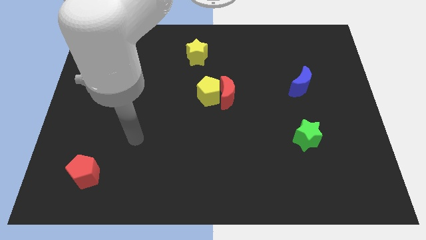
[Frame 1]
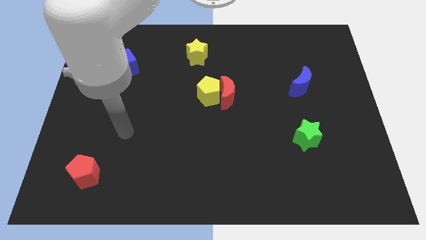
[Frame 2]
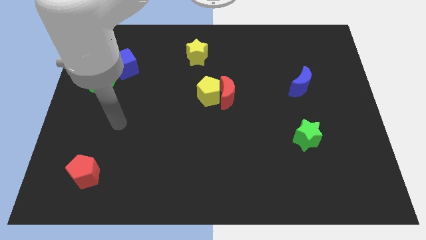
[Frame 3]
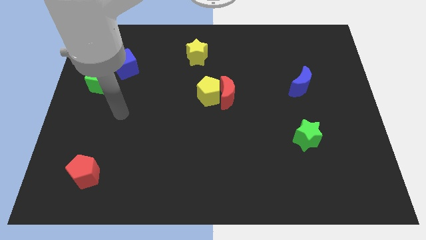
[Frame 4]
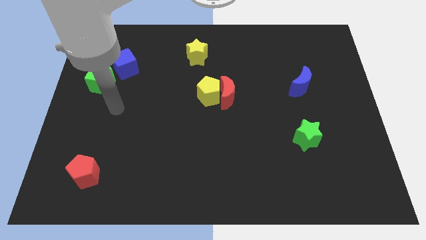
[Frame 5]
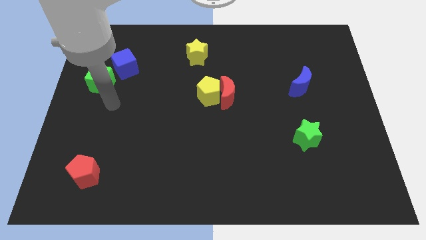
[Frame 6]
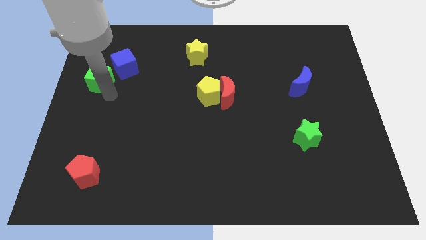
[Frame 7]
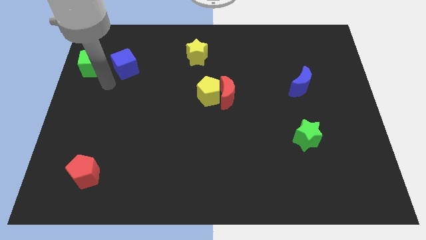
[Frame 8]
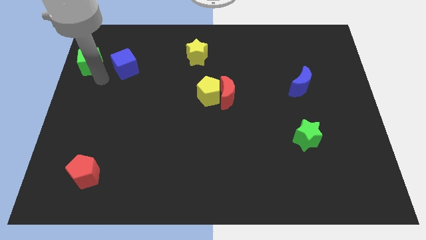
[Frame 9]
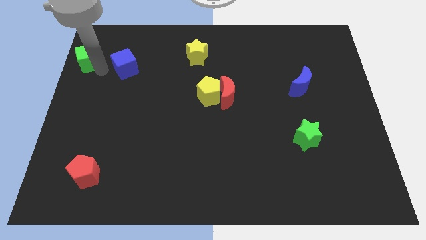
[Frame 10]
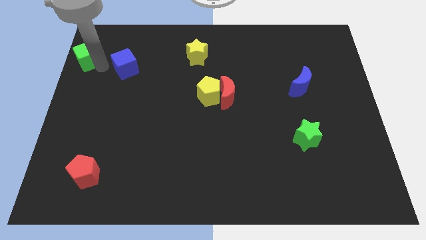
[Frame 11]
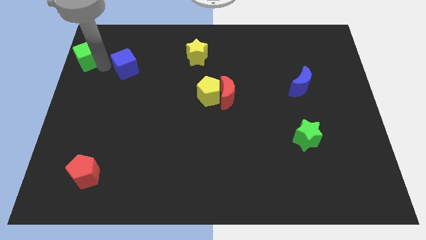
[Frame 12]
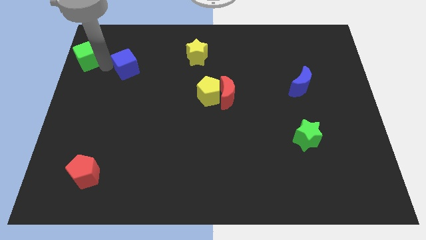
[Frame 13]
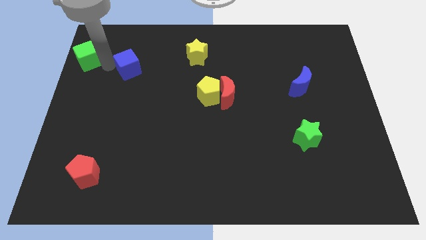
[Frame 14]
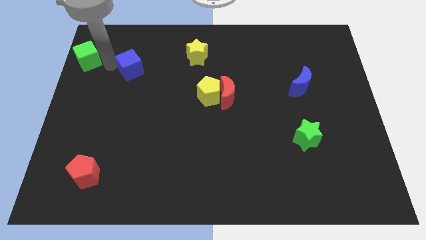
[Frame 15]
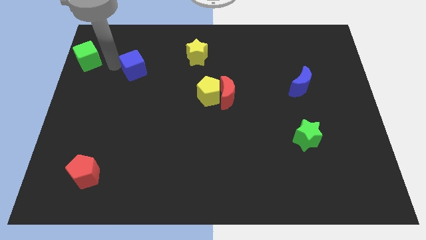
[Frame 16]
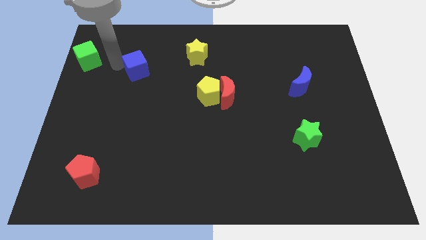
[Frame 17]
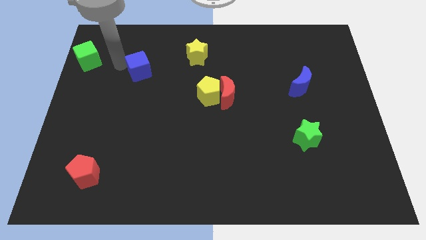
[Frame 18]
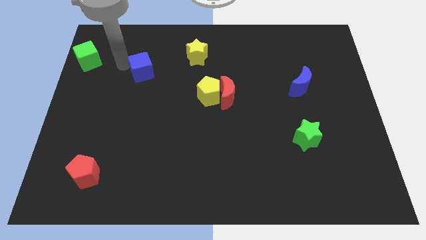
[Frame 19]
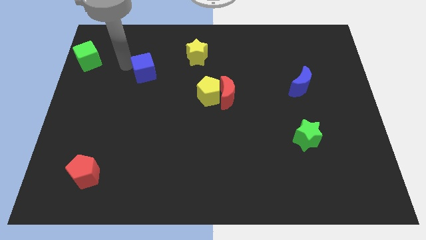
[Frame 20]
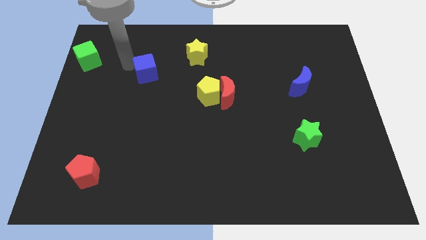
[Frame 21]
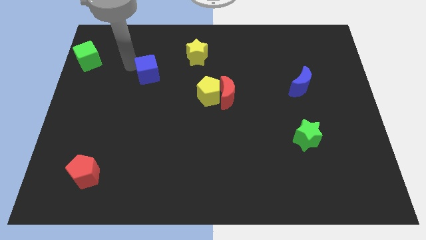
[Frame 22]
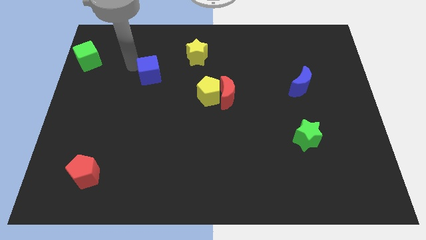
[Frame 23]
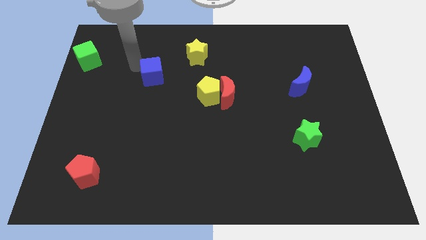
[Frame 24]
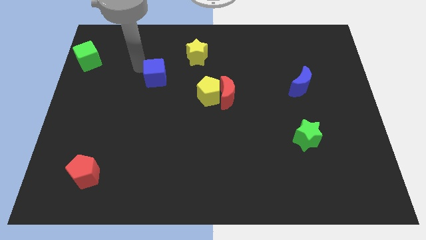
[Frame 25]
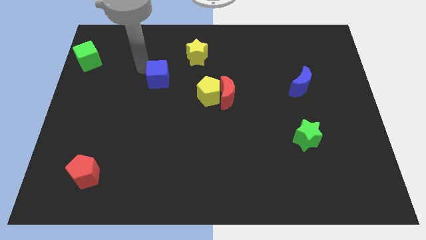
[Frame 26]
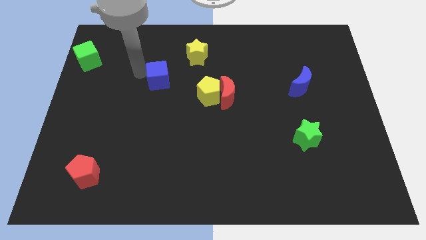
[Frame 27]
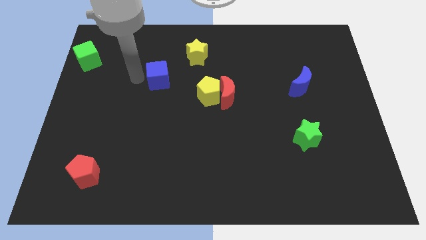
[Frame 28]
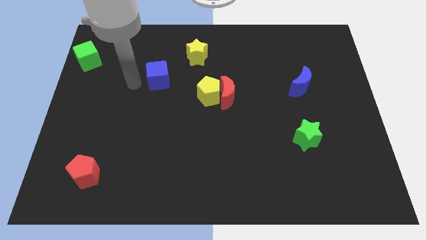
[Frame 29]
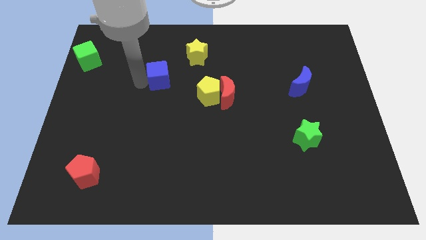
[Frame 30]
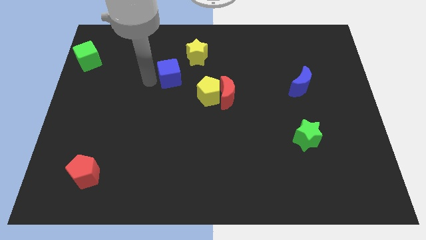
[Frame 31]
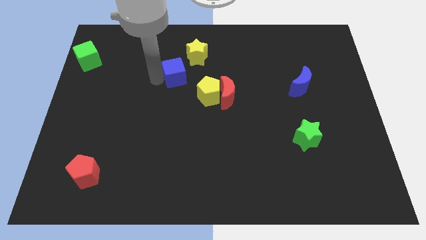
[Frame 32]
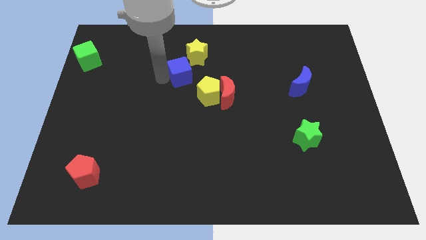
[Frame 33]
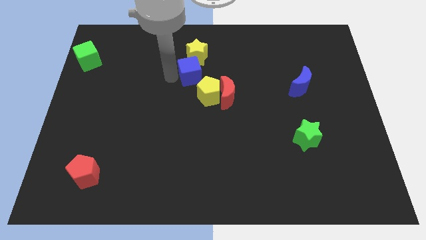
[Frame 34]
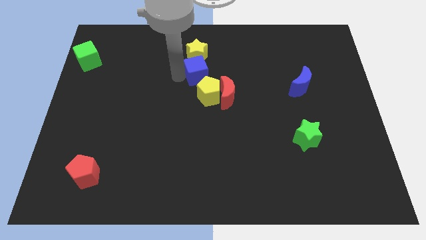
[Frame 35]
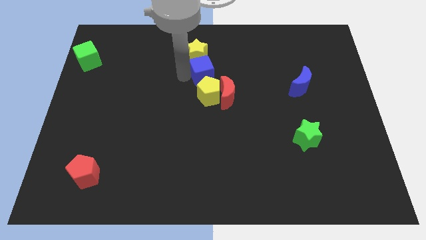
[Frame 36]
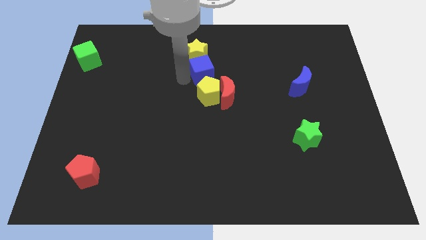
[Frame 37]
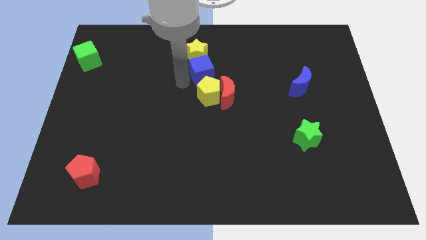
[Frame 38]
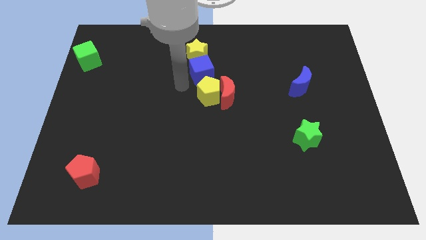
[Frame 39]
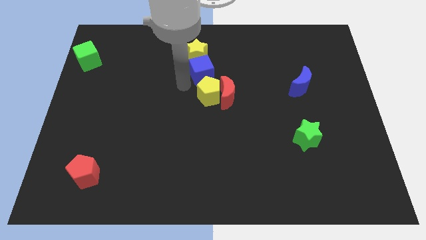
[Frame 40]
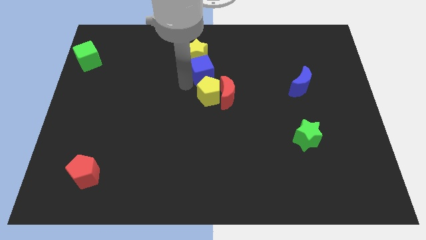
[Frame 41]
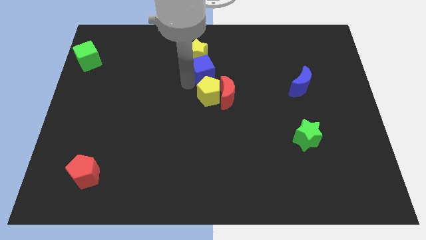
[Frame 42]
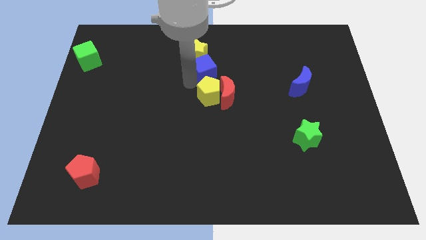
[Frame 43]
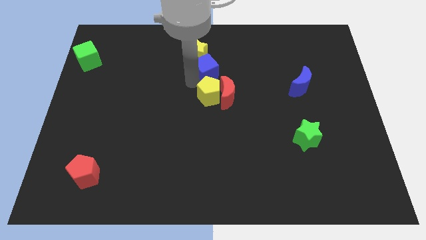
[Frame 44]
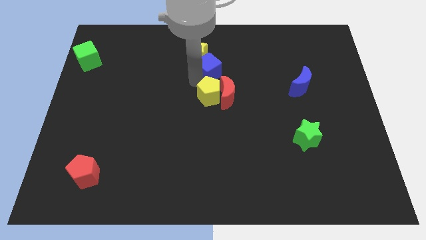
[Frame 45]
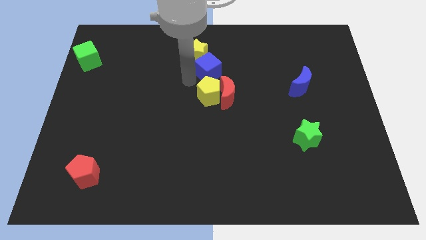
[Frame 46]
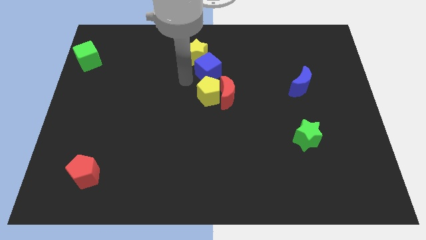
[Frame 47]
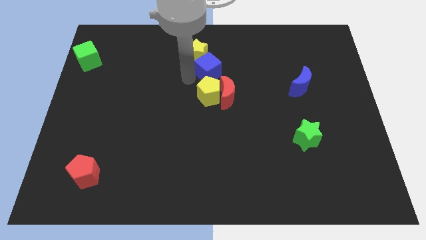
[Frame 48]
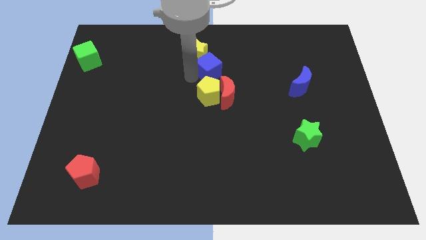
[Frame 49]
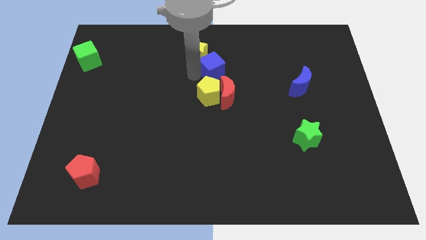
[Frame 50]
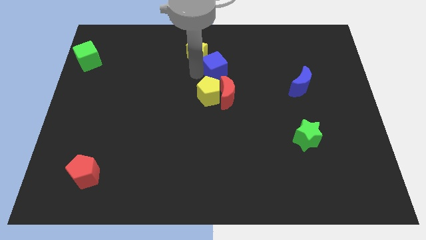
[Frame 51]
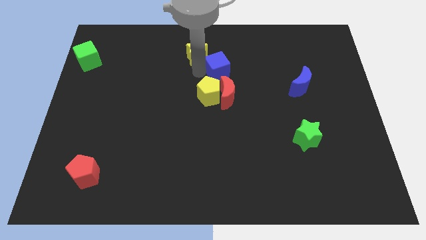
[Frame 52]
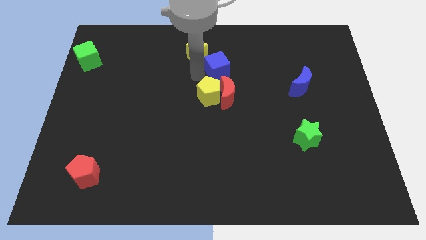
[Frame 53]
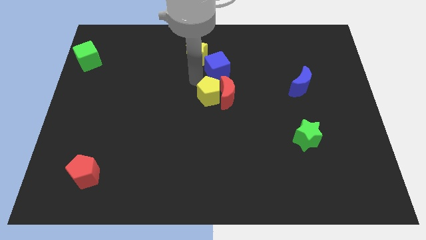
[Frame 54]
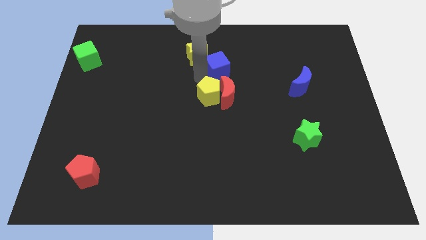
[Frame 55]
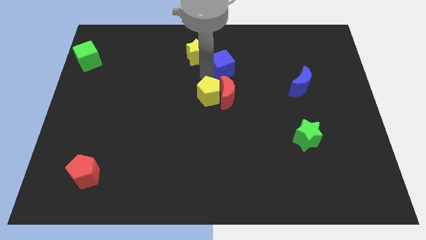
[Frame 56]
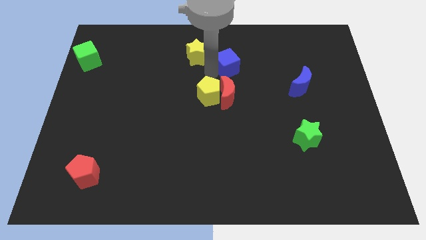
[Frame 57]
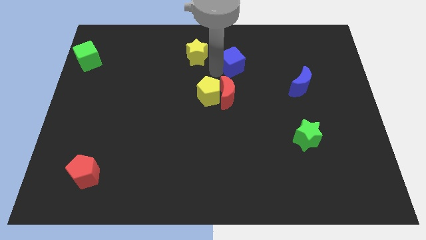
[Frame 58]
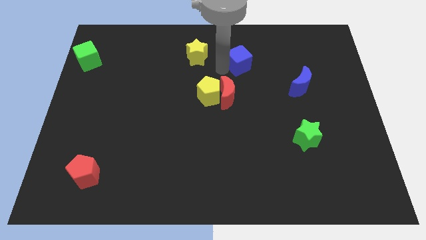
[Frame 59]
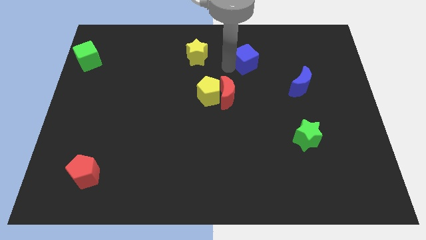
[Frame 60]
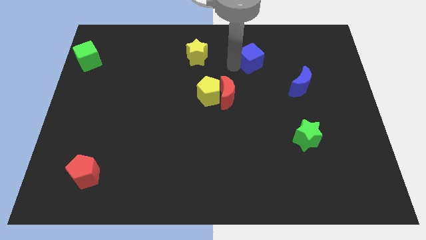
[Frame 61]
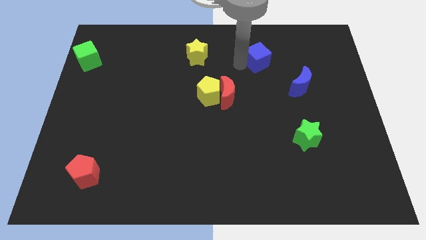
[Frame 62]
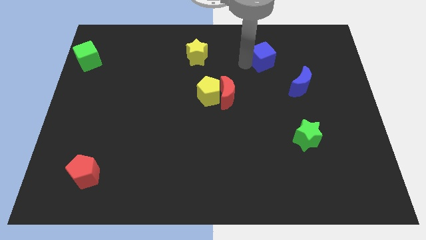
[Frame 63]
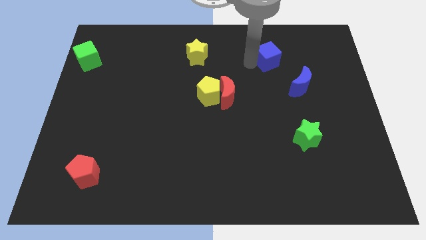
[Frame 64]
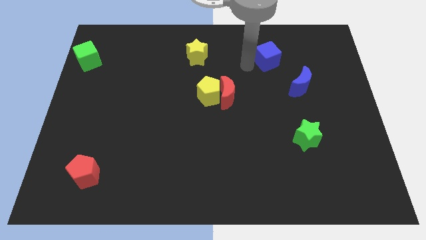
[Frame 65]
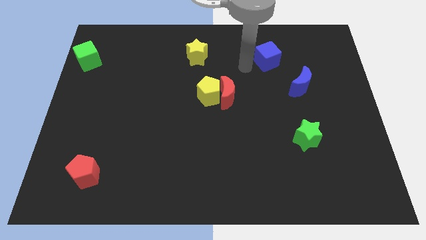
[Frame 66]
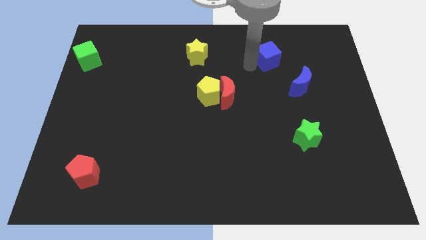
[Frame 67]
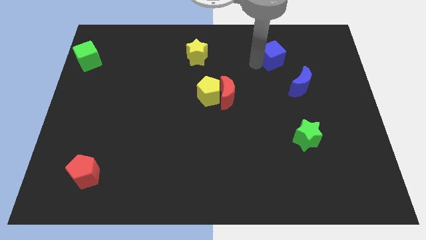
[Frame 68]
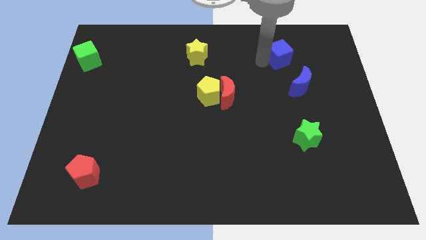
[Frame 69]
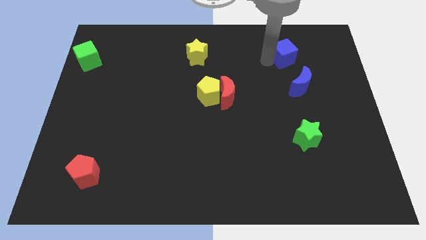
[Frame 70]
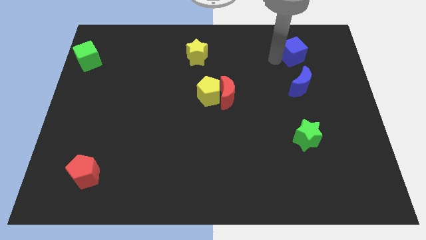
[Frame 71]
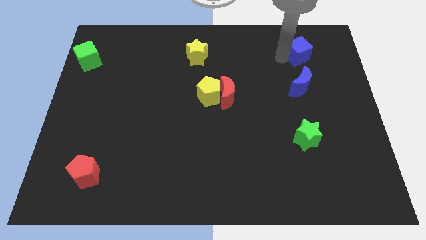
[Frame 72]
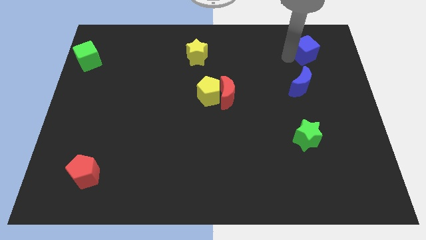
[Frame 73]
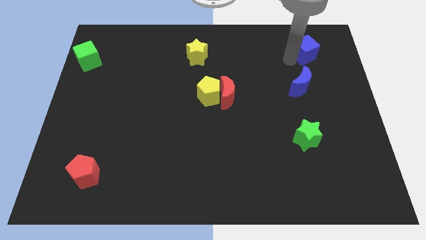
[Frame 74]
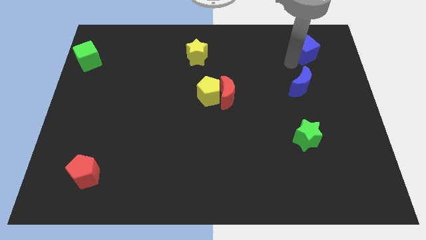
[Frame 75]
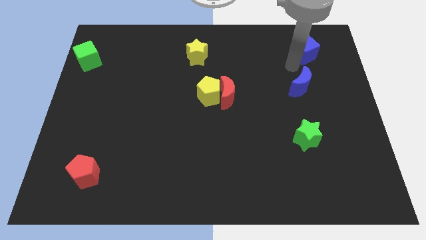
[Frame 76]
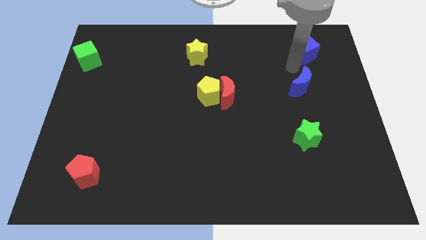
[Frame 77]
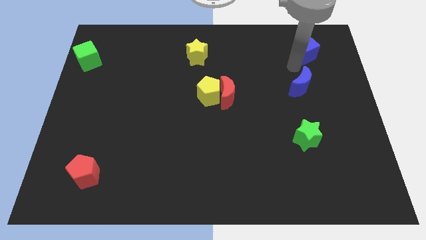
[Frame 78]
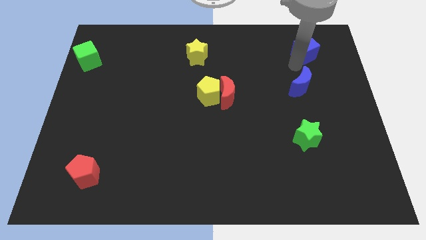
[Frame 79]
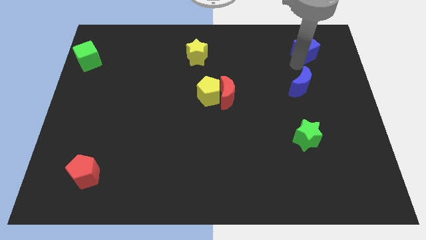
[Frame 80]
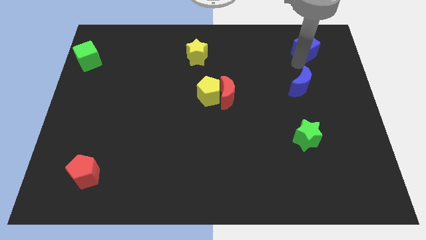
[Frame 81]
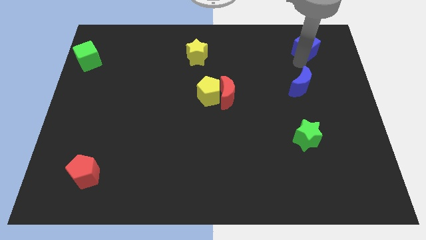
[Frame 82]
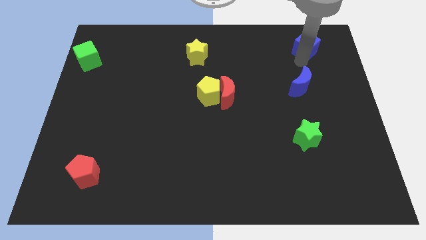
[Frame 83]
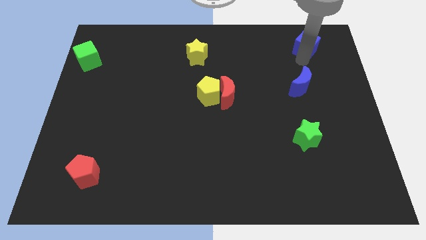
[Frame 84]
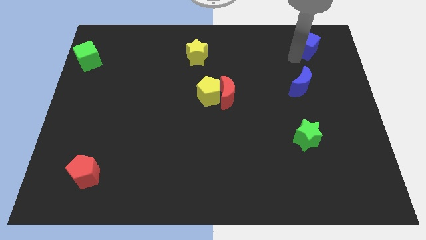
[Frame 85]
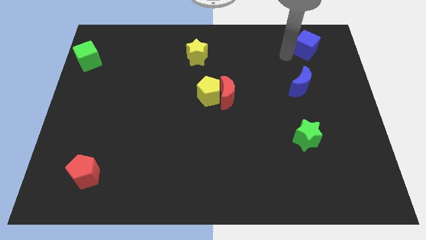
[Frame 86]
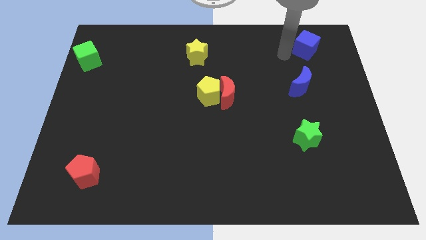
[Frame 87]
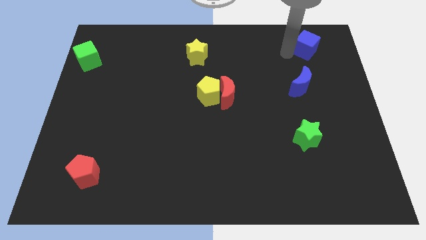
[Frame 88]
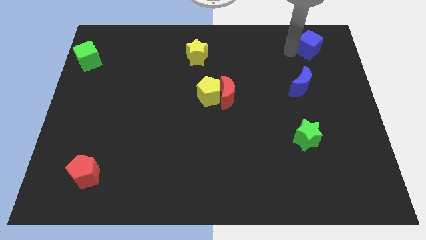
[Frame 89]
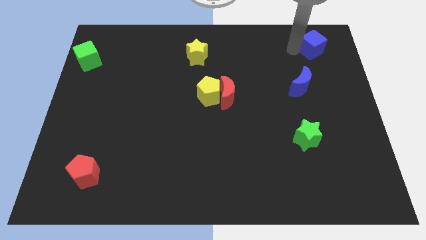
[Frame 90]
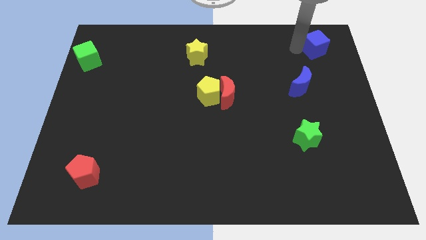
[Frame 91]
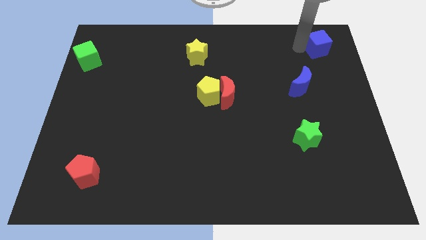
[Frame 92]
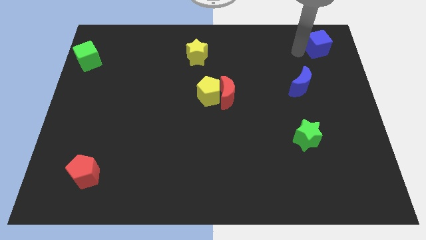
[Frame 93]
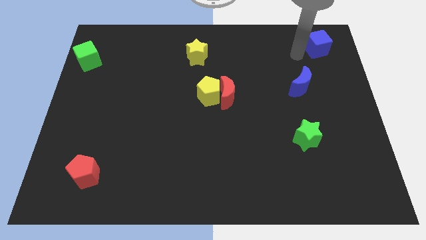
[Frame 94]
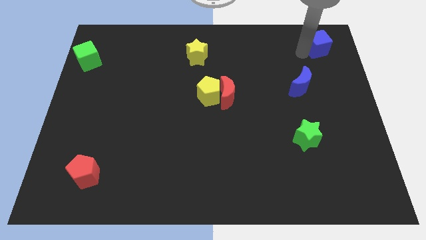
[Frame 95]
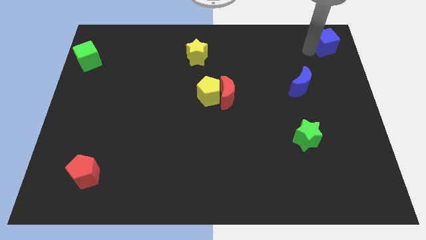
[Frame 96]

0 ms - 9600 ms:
slide the blue cube to the top right
